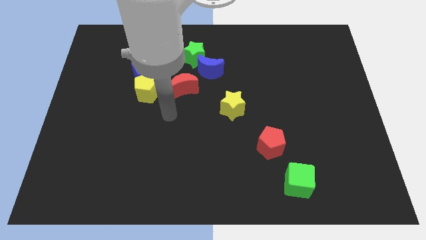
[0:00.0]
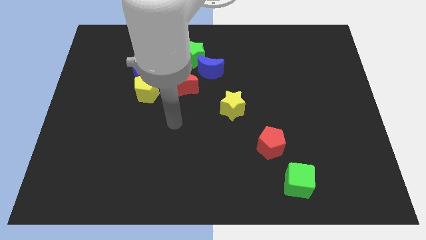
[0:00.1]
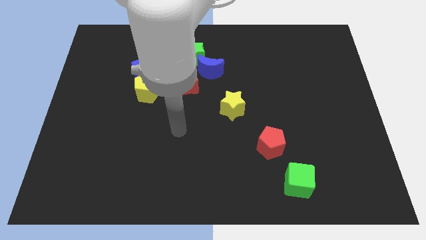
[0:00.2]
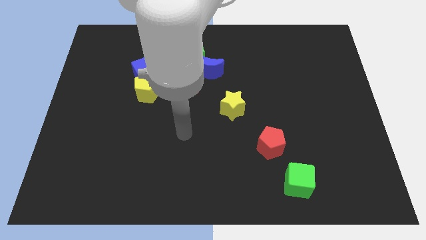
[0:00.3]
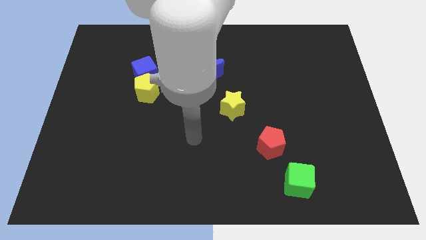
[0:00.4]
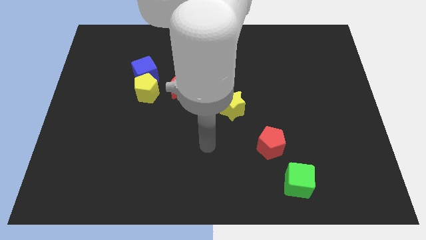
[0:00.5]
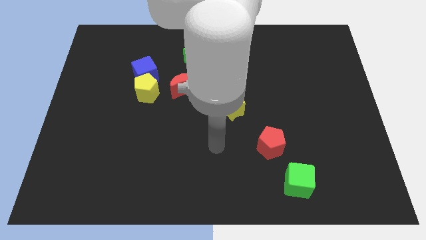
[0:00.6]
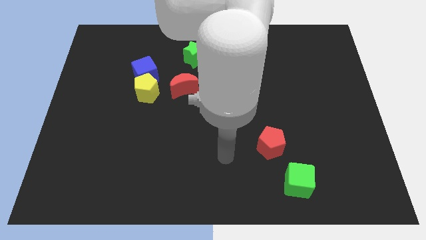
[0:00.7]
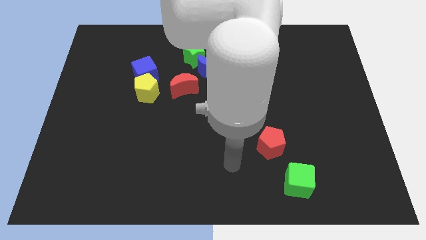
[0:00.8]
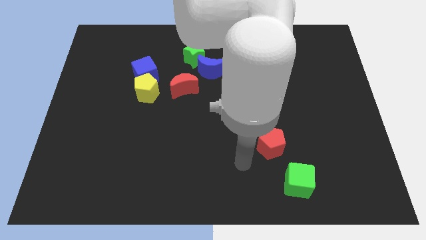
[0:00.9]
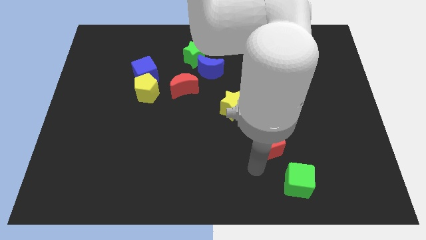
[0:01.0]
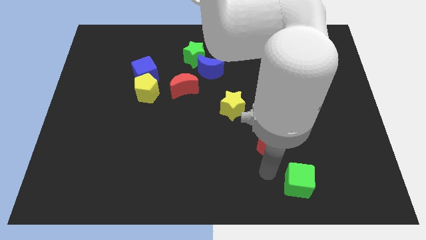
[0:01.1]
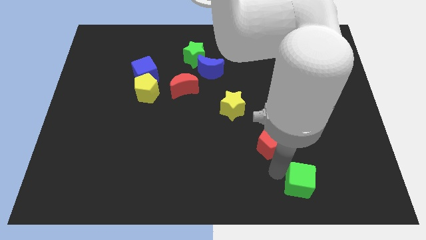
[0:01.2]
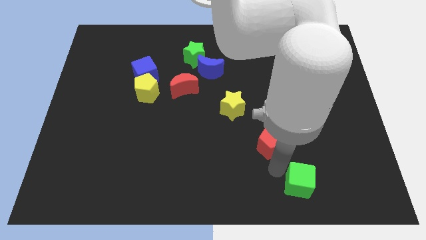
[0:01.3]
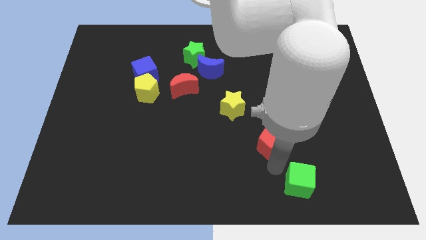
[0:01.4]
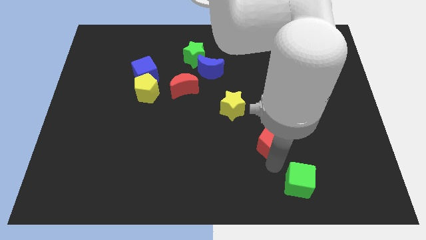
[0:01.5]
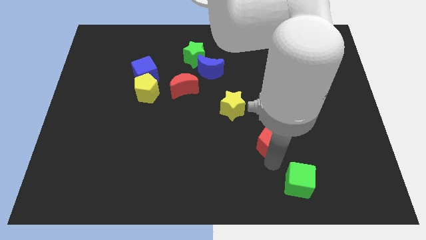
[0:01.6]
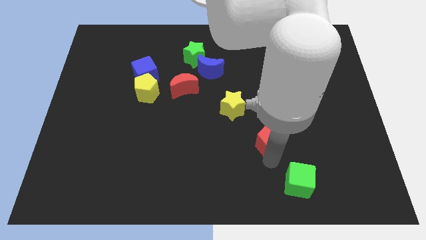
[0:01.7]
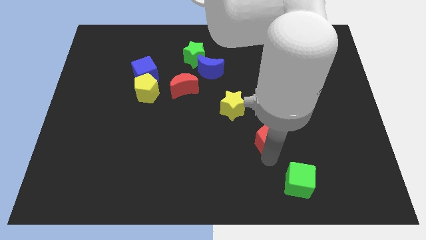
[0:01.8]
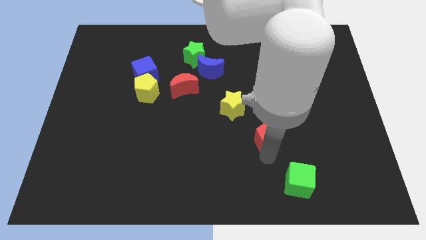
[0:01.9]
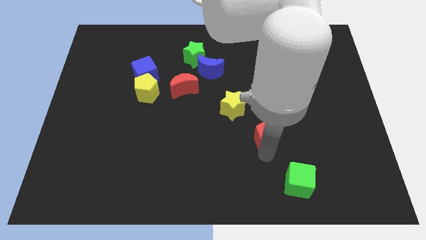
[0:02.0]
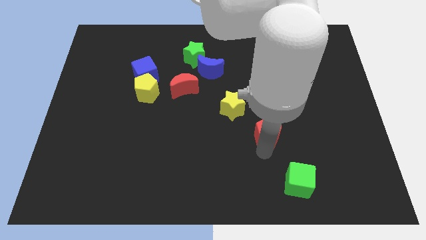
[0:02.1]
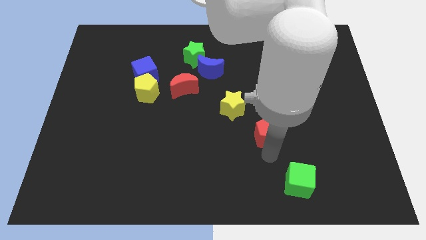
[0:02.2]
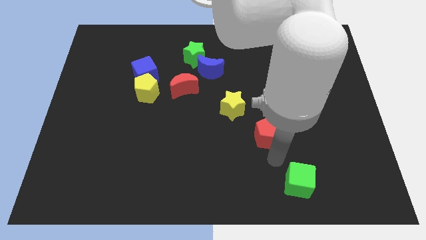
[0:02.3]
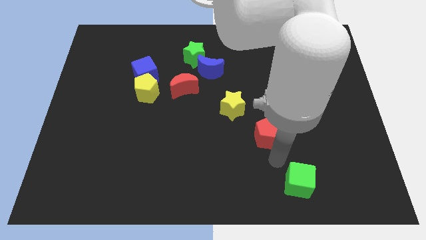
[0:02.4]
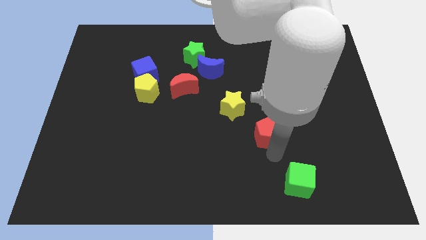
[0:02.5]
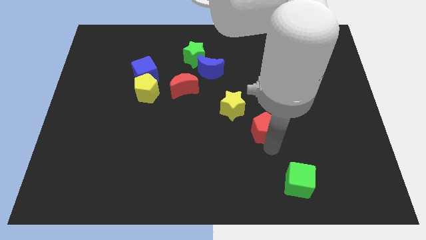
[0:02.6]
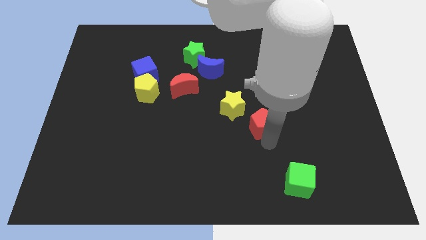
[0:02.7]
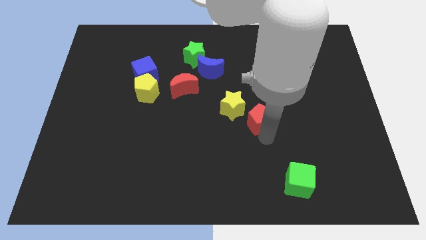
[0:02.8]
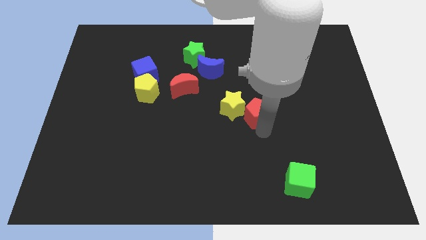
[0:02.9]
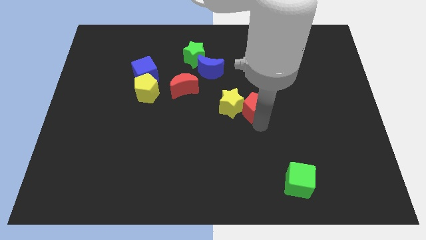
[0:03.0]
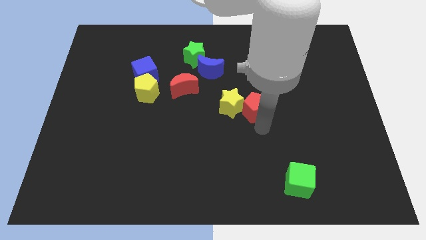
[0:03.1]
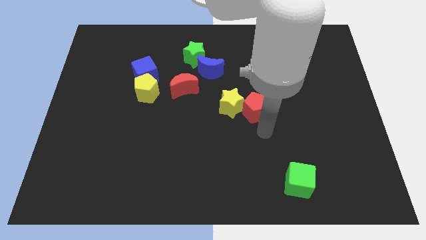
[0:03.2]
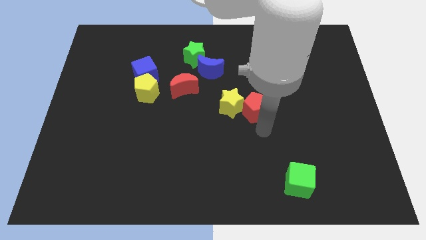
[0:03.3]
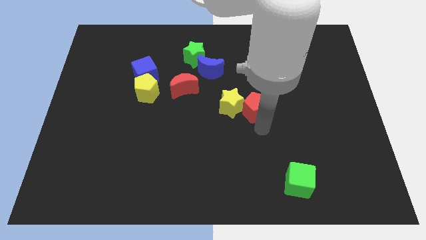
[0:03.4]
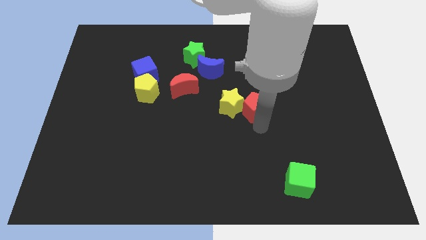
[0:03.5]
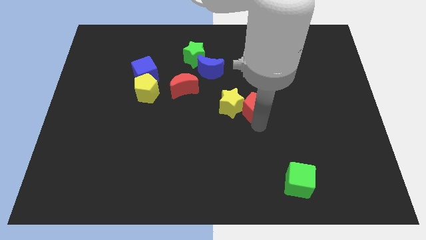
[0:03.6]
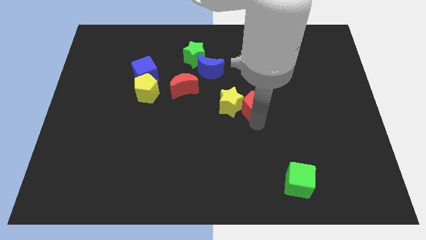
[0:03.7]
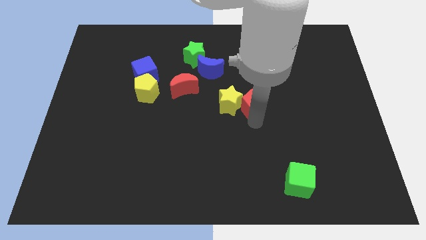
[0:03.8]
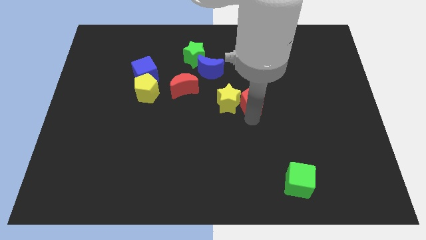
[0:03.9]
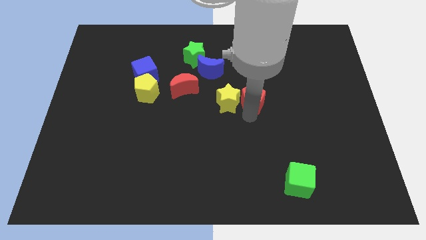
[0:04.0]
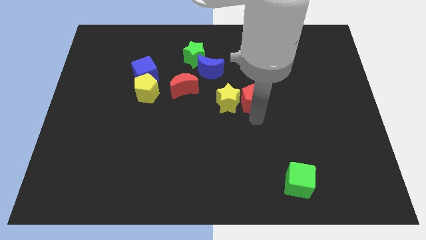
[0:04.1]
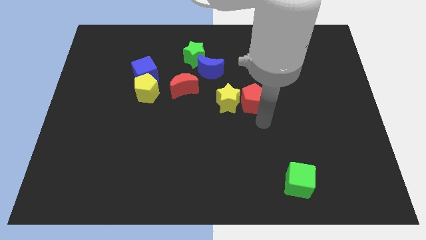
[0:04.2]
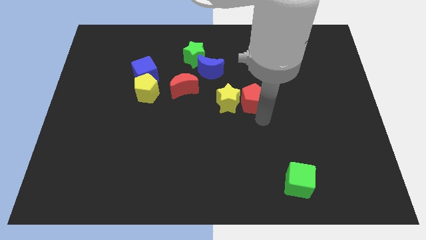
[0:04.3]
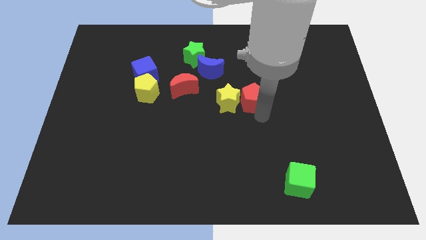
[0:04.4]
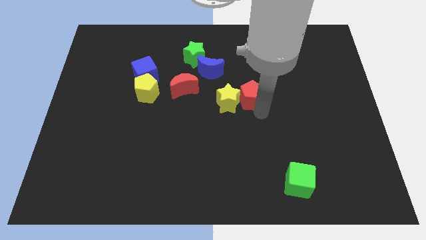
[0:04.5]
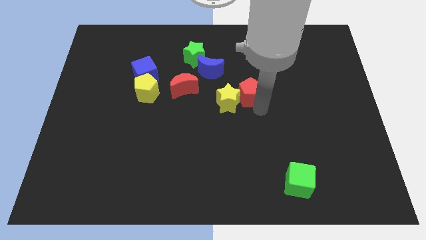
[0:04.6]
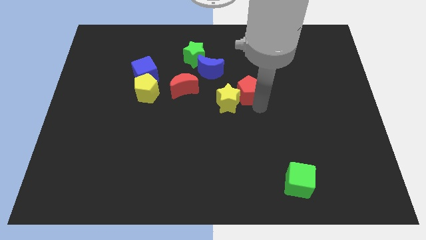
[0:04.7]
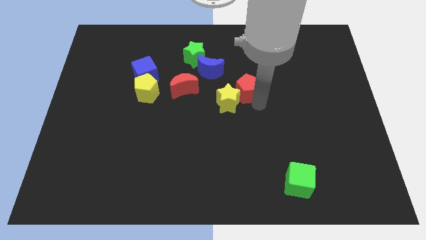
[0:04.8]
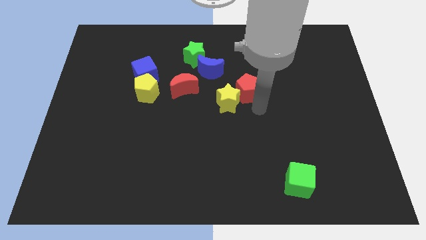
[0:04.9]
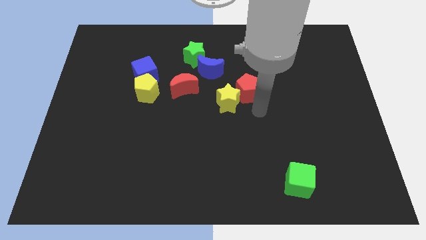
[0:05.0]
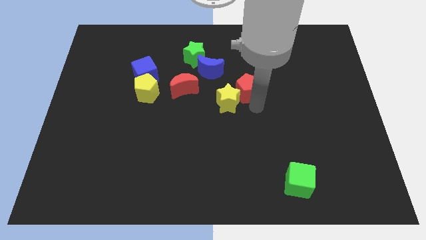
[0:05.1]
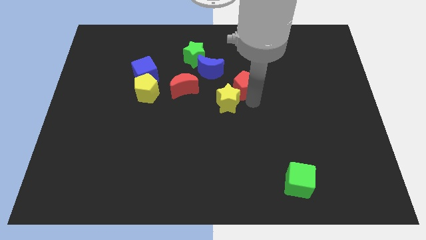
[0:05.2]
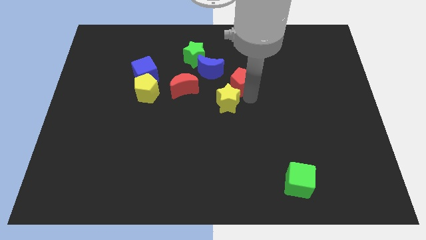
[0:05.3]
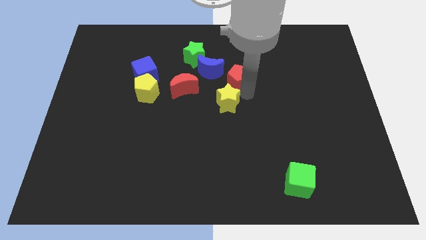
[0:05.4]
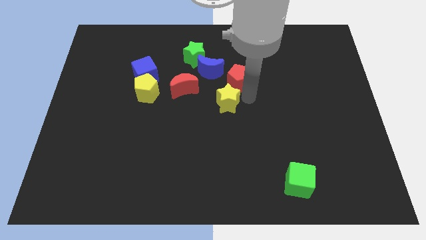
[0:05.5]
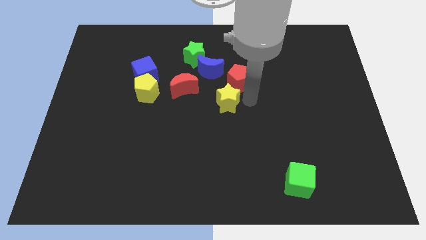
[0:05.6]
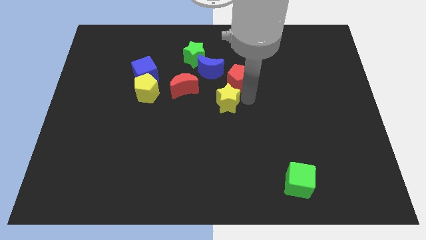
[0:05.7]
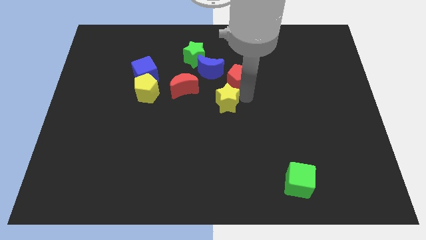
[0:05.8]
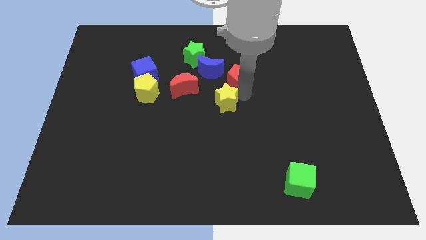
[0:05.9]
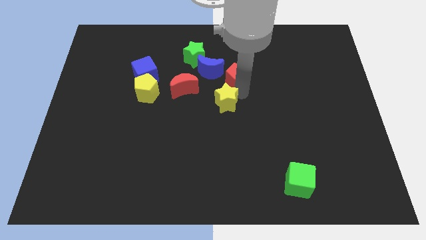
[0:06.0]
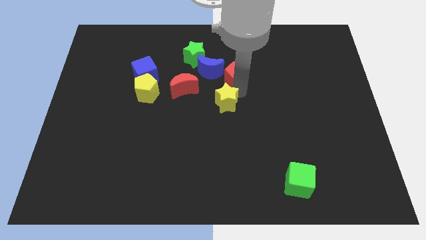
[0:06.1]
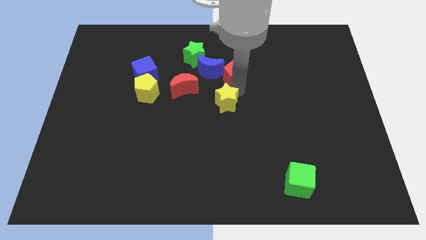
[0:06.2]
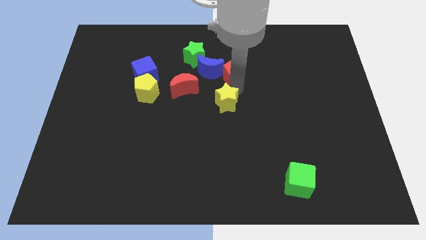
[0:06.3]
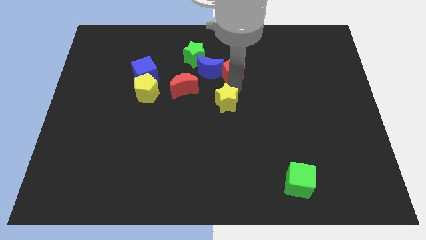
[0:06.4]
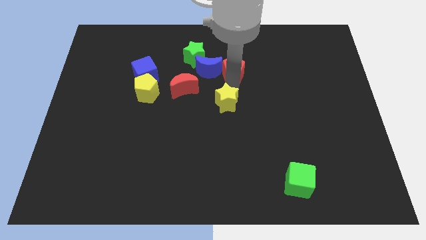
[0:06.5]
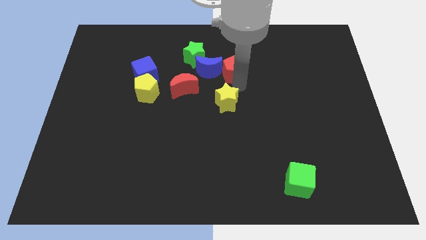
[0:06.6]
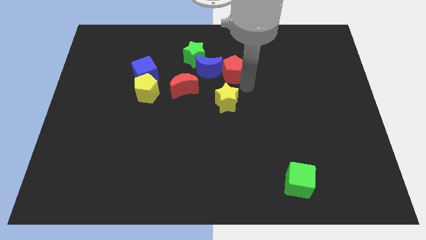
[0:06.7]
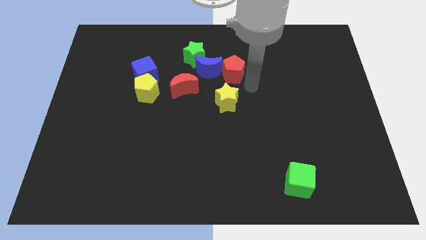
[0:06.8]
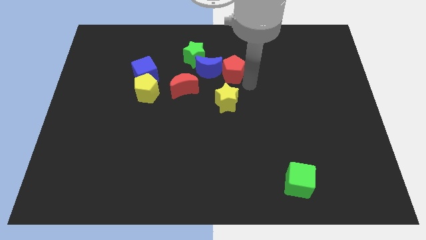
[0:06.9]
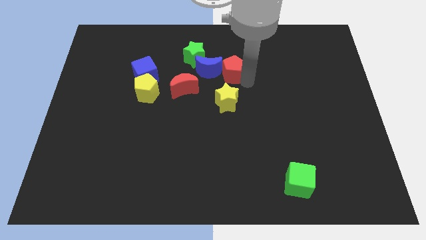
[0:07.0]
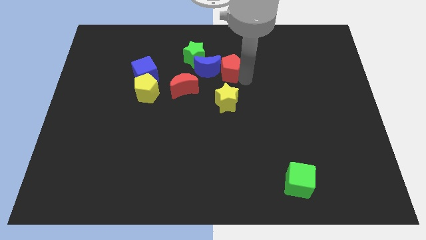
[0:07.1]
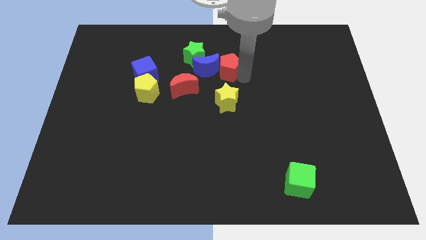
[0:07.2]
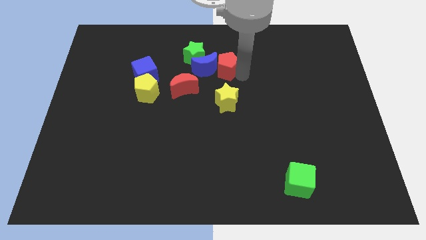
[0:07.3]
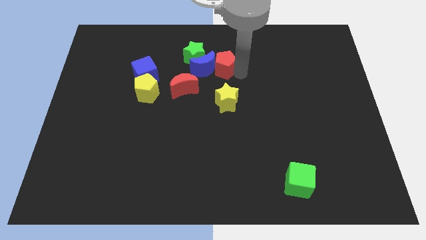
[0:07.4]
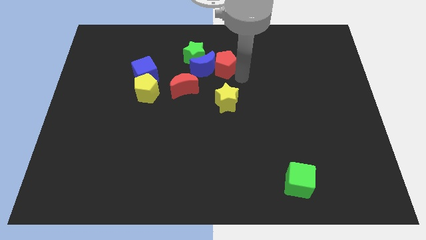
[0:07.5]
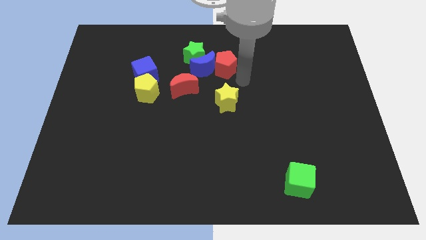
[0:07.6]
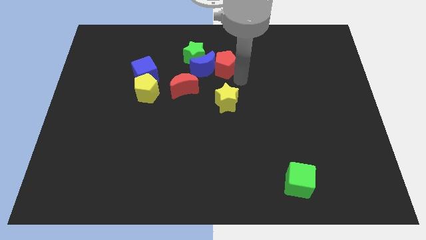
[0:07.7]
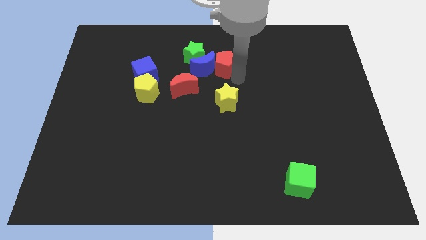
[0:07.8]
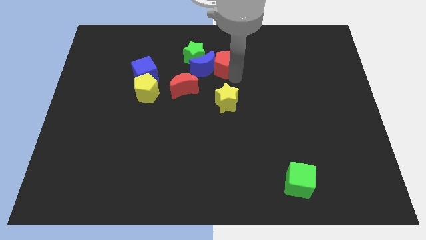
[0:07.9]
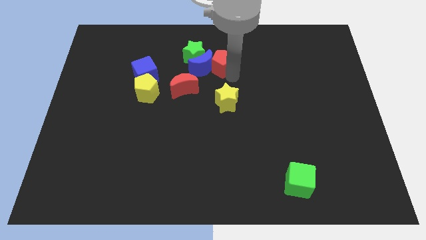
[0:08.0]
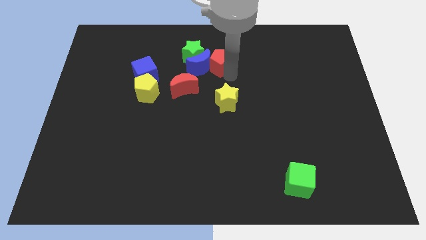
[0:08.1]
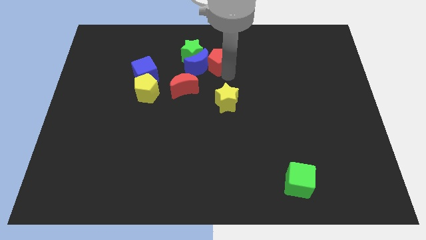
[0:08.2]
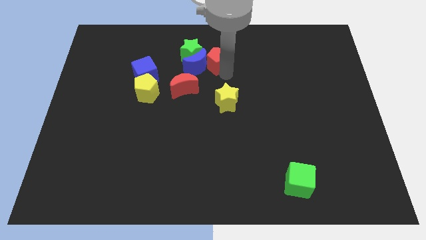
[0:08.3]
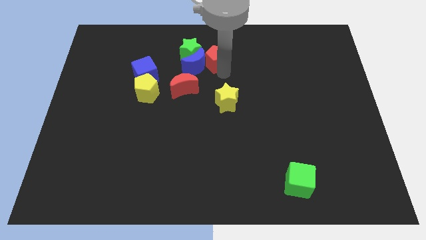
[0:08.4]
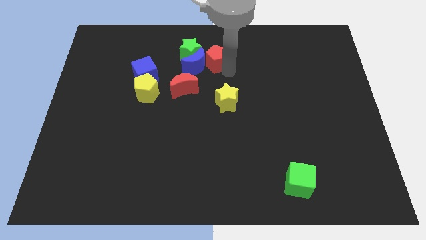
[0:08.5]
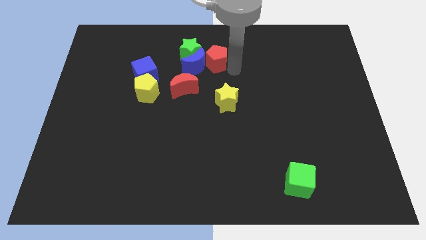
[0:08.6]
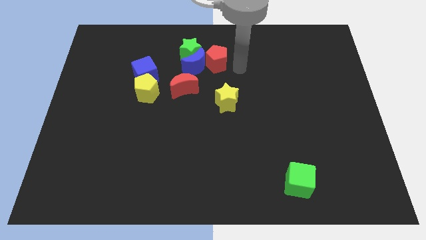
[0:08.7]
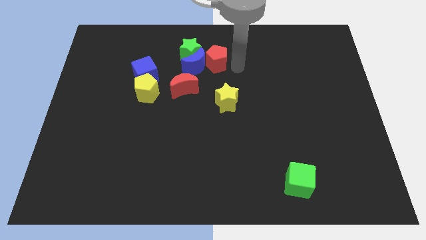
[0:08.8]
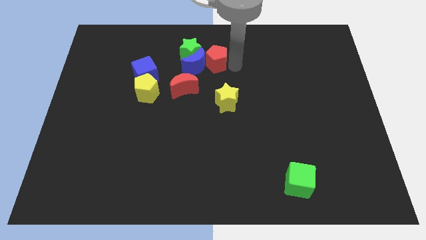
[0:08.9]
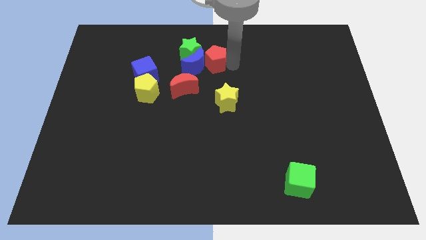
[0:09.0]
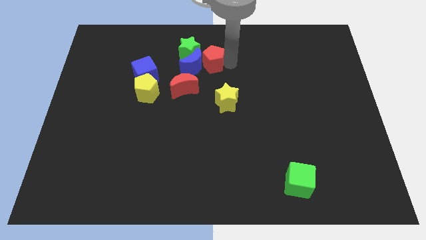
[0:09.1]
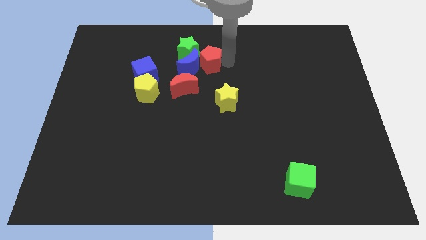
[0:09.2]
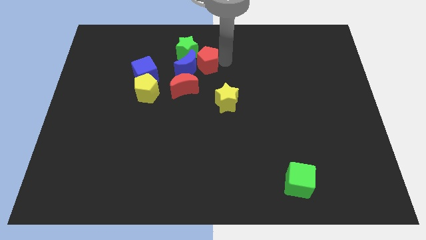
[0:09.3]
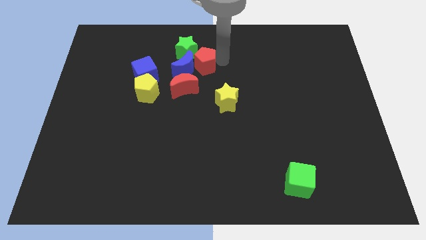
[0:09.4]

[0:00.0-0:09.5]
move the red pentagon towards the green star
